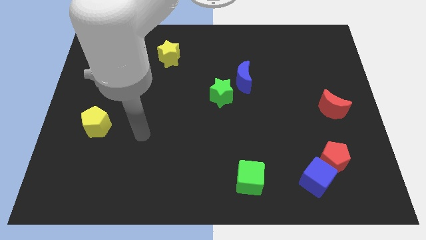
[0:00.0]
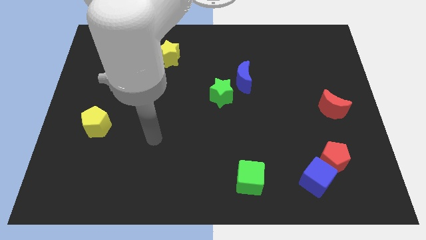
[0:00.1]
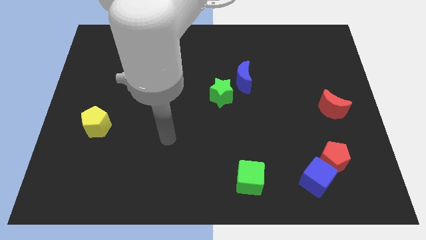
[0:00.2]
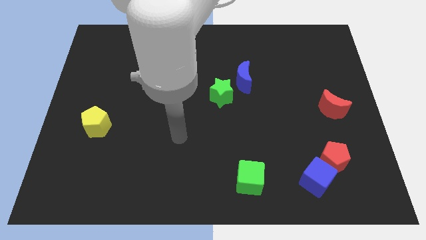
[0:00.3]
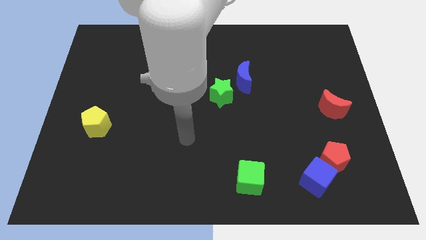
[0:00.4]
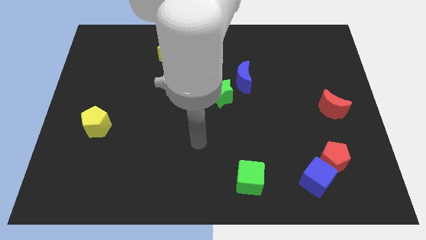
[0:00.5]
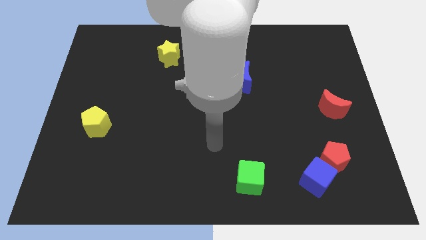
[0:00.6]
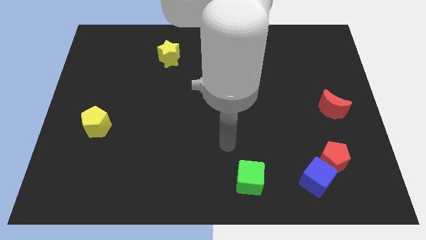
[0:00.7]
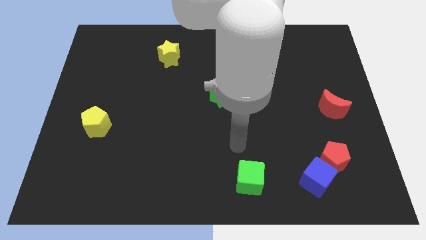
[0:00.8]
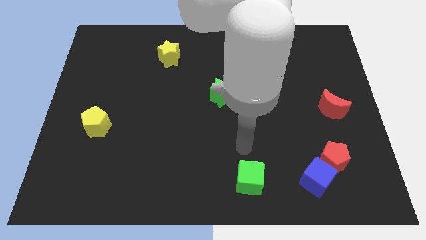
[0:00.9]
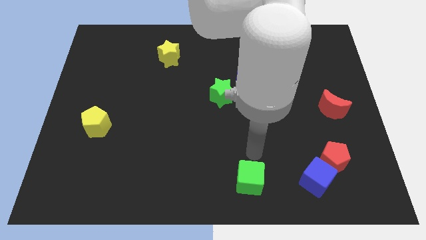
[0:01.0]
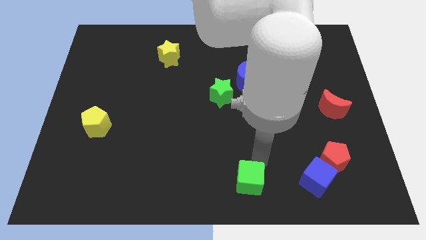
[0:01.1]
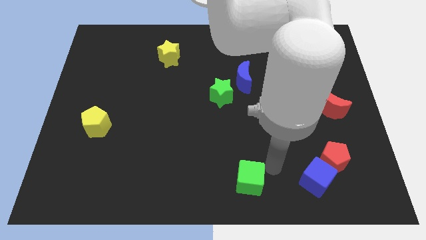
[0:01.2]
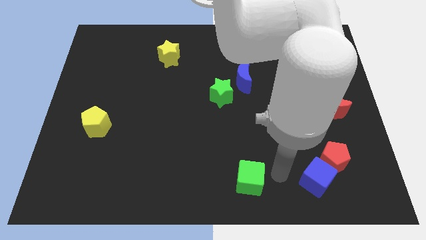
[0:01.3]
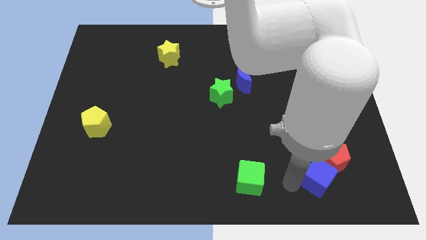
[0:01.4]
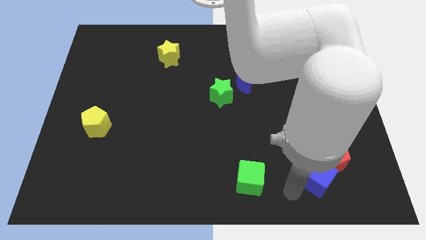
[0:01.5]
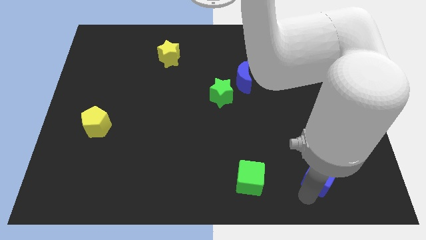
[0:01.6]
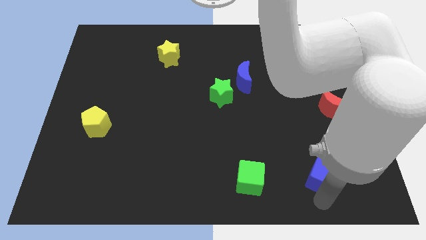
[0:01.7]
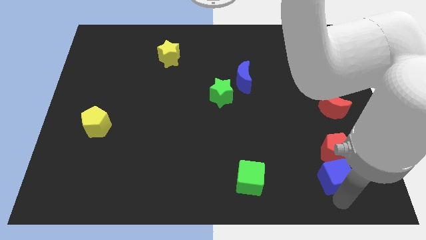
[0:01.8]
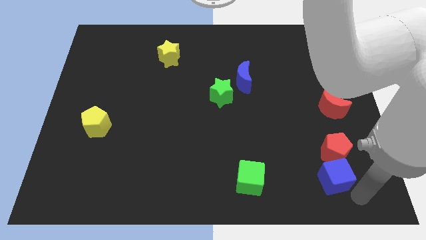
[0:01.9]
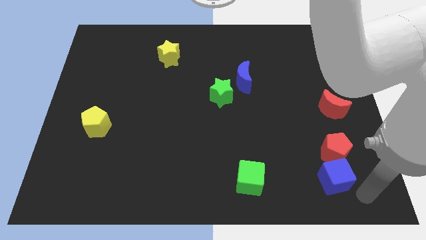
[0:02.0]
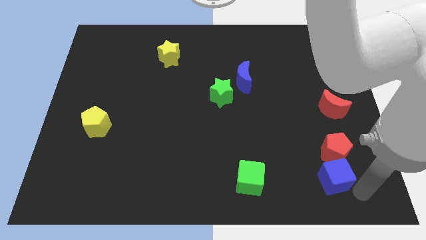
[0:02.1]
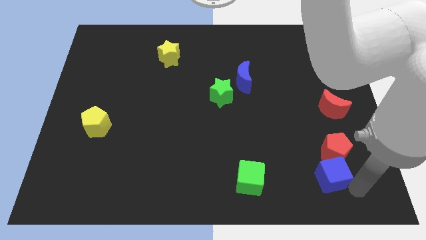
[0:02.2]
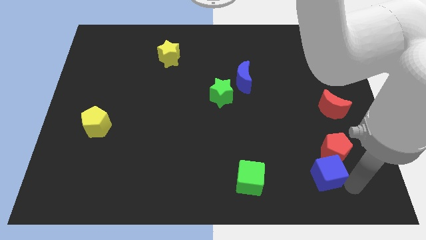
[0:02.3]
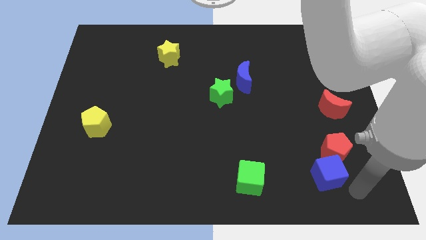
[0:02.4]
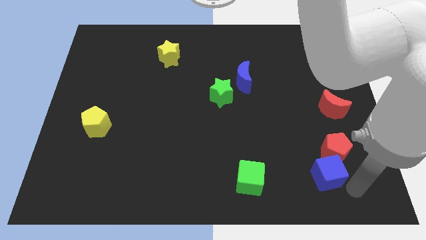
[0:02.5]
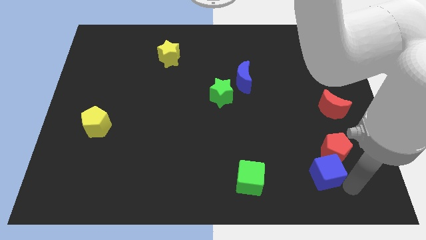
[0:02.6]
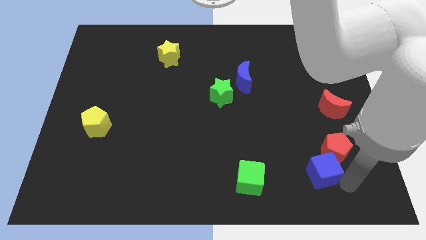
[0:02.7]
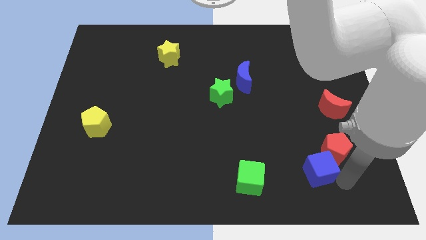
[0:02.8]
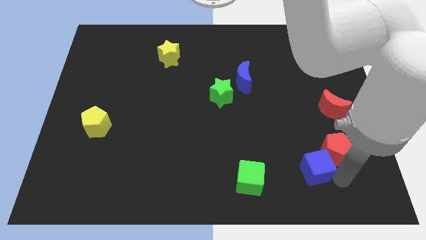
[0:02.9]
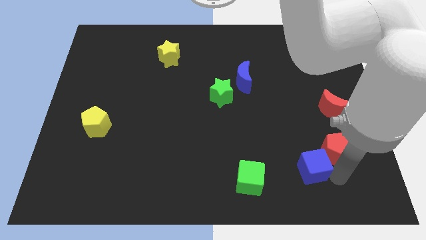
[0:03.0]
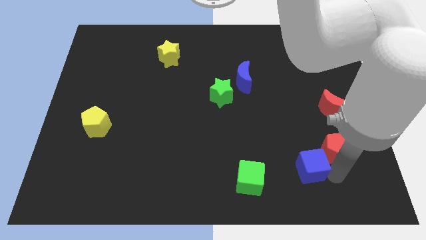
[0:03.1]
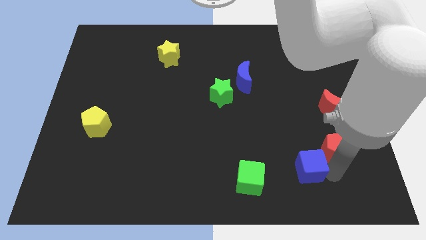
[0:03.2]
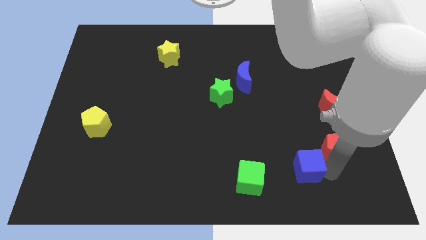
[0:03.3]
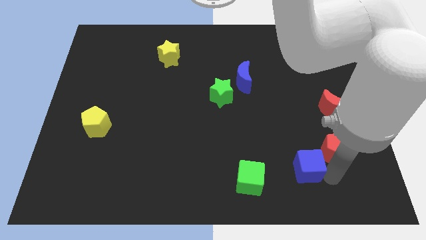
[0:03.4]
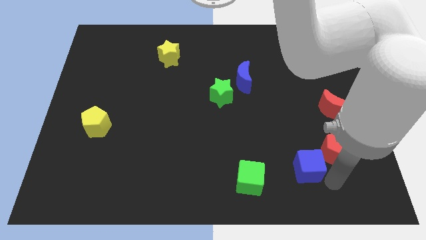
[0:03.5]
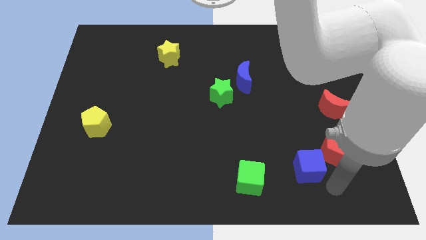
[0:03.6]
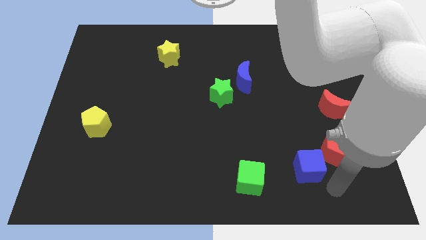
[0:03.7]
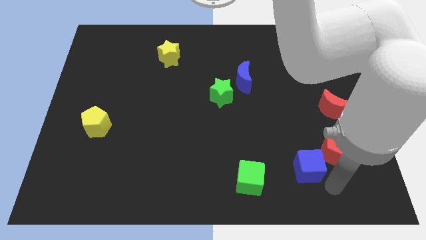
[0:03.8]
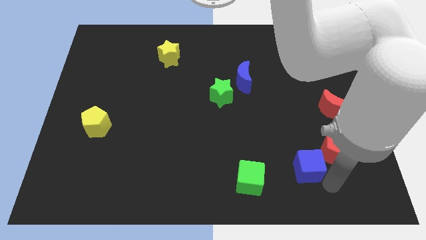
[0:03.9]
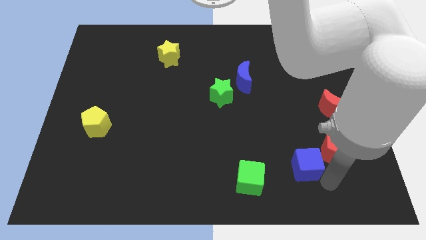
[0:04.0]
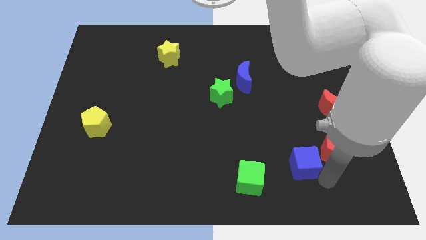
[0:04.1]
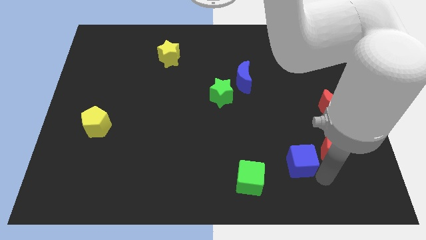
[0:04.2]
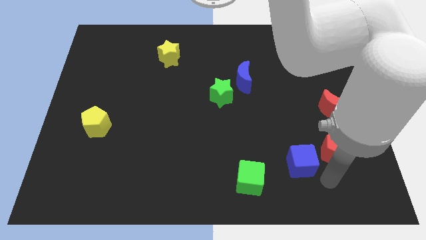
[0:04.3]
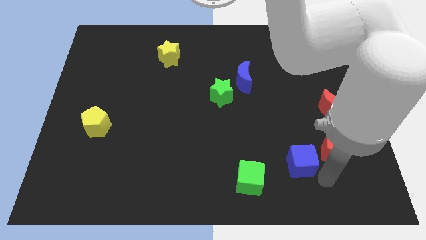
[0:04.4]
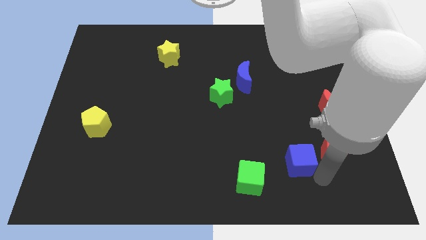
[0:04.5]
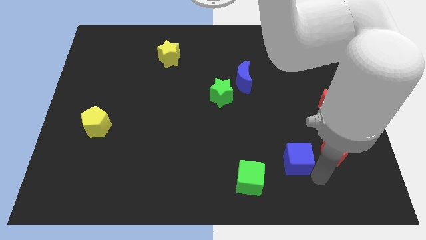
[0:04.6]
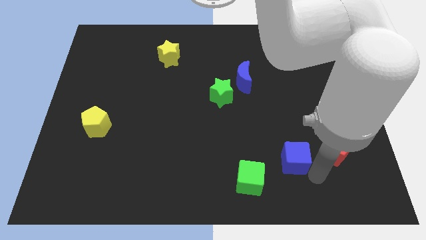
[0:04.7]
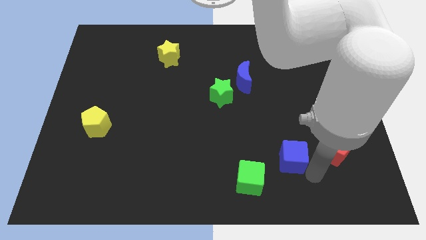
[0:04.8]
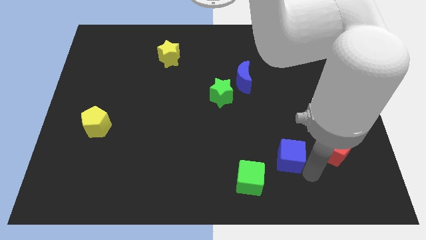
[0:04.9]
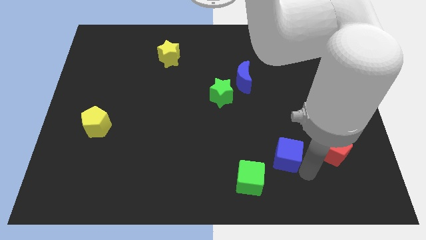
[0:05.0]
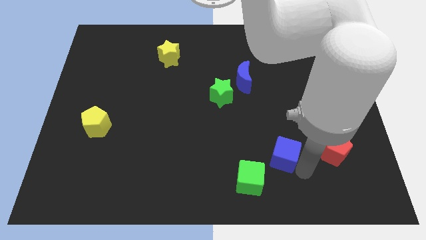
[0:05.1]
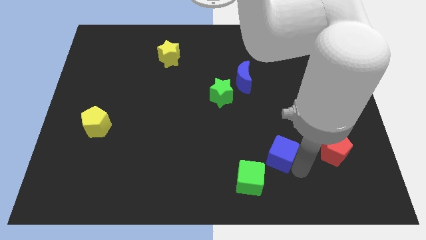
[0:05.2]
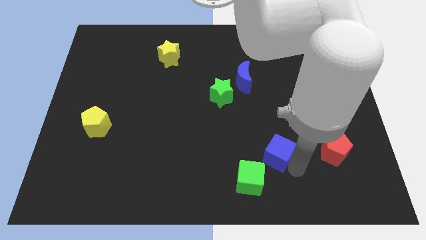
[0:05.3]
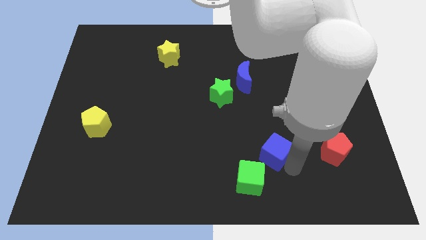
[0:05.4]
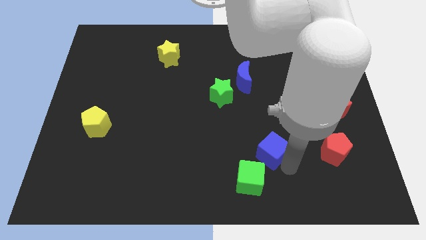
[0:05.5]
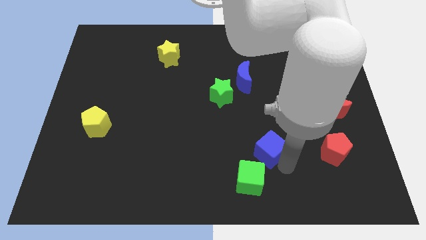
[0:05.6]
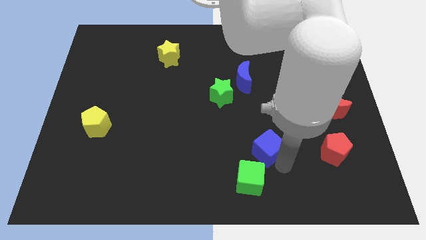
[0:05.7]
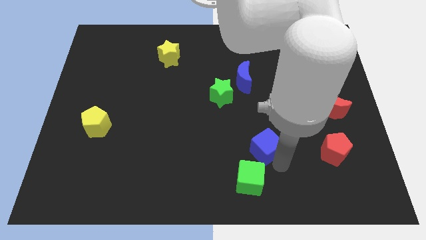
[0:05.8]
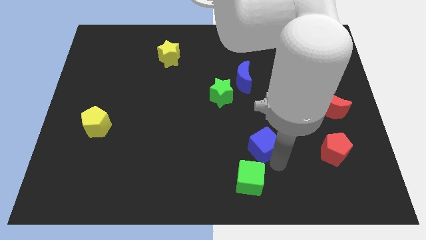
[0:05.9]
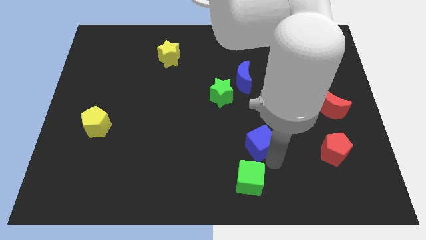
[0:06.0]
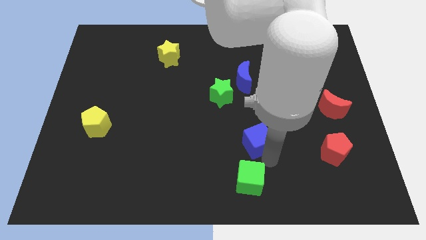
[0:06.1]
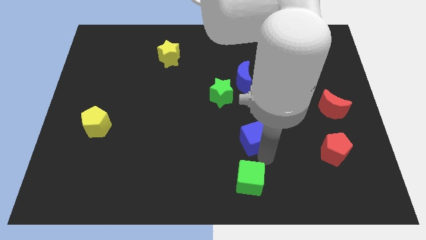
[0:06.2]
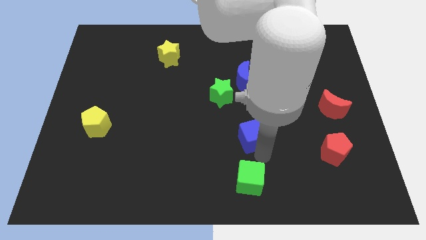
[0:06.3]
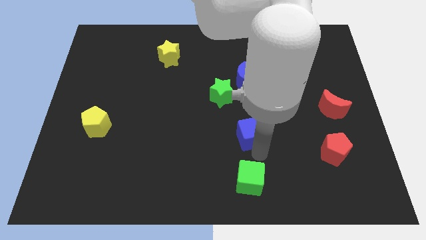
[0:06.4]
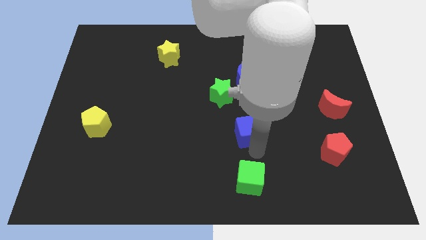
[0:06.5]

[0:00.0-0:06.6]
push the blue cube to the bottom of the blue moon
